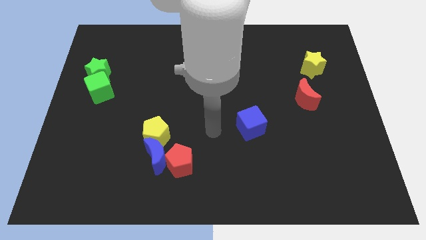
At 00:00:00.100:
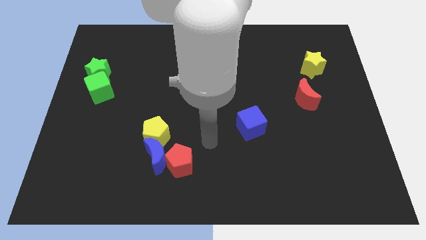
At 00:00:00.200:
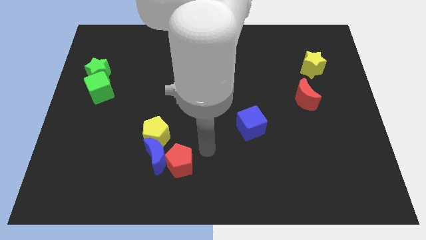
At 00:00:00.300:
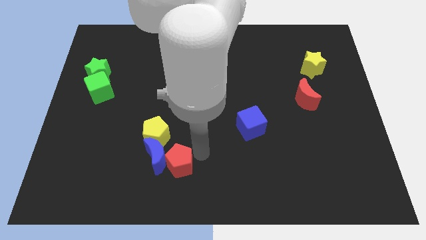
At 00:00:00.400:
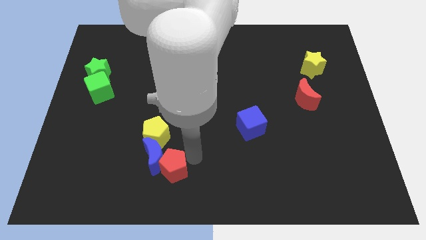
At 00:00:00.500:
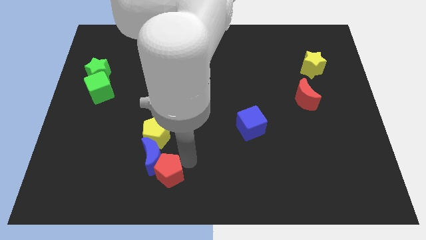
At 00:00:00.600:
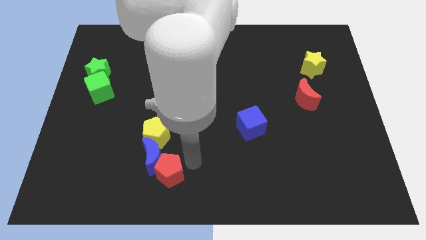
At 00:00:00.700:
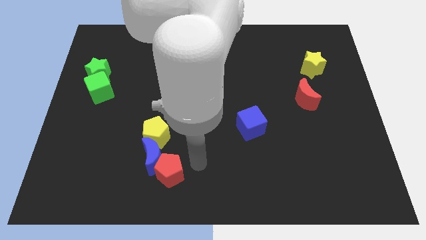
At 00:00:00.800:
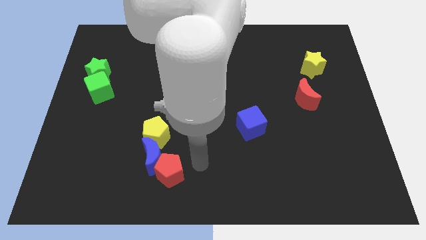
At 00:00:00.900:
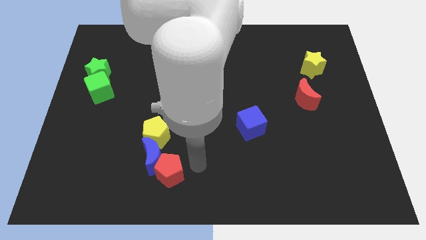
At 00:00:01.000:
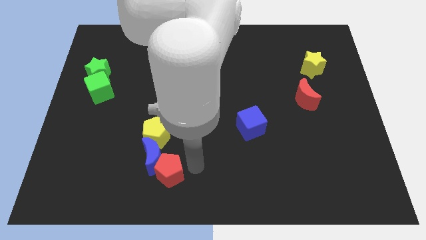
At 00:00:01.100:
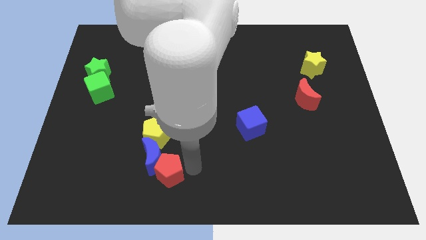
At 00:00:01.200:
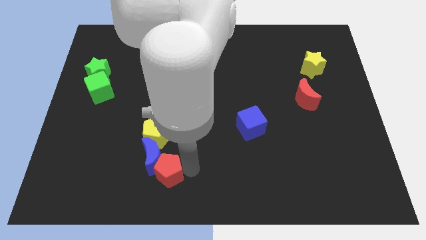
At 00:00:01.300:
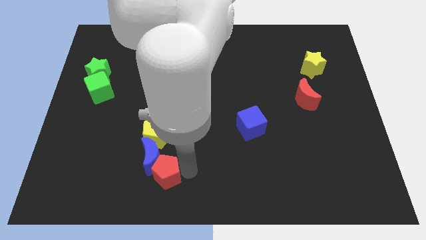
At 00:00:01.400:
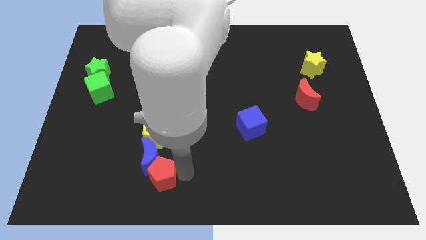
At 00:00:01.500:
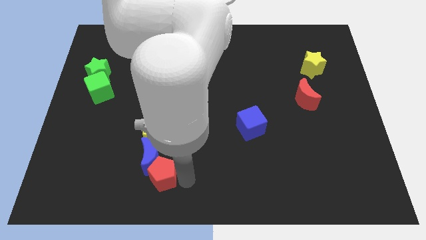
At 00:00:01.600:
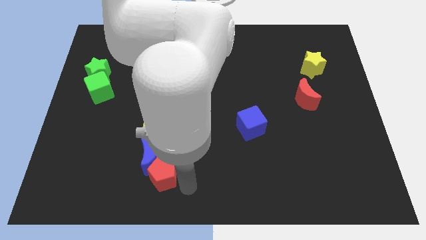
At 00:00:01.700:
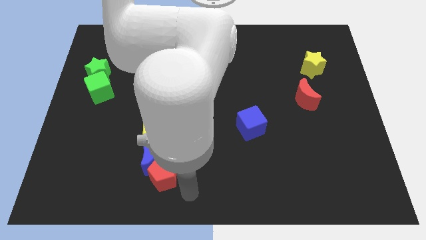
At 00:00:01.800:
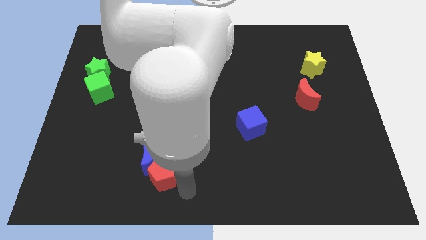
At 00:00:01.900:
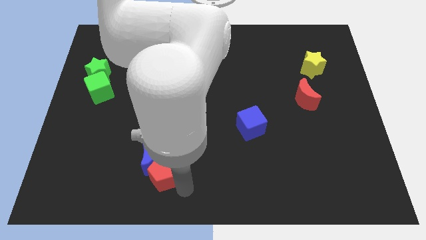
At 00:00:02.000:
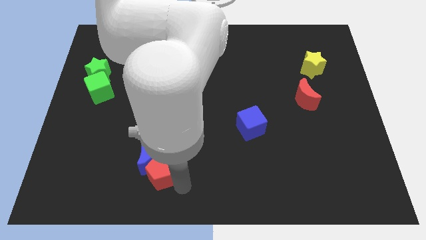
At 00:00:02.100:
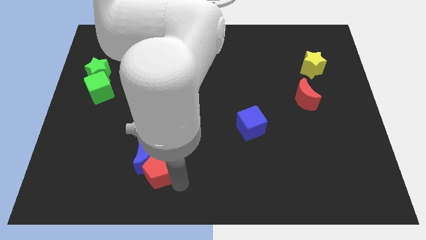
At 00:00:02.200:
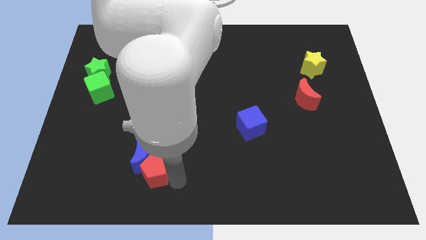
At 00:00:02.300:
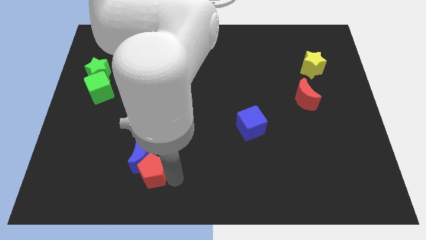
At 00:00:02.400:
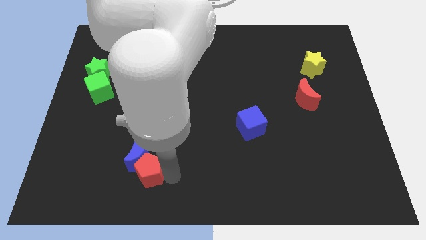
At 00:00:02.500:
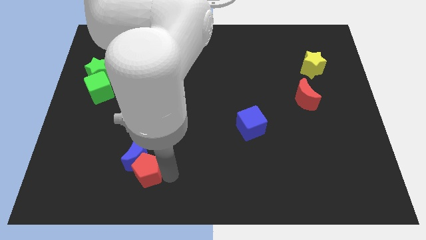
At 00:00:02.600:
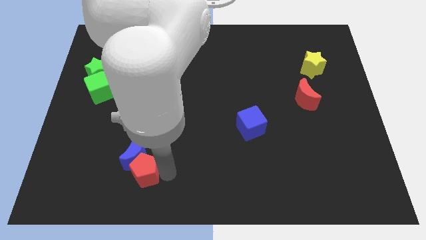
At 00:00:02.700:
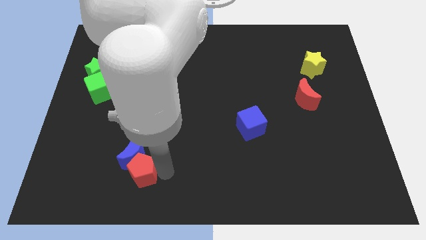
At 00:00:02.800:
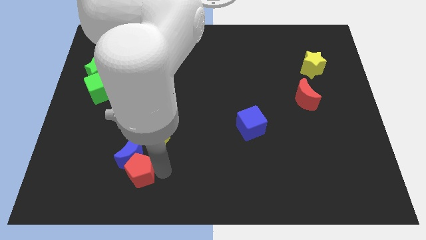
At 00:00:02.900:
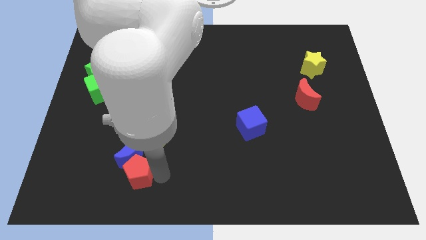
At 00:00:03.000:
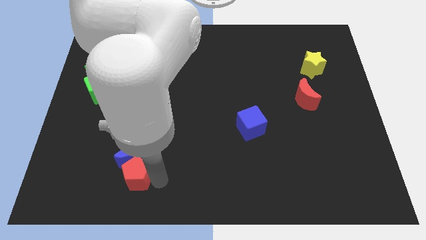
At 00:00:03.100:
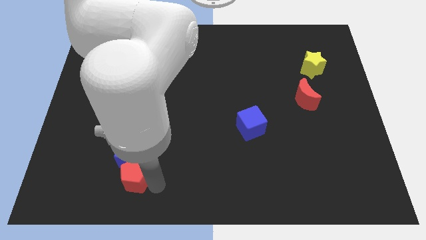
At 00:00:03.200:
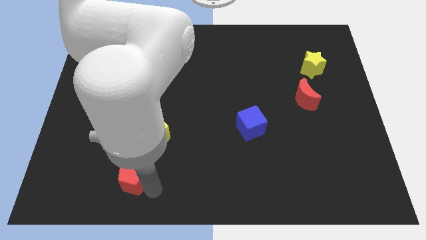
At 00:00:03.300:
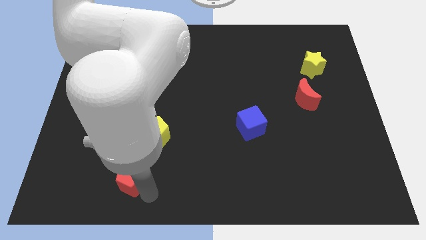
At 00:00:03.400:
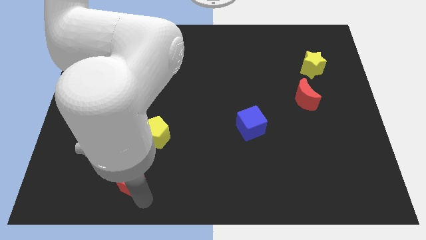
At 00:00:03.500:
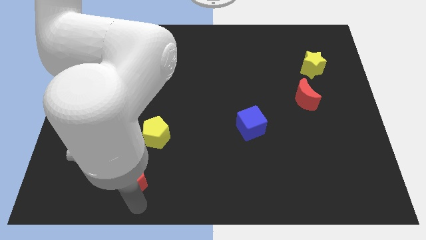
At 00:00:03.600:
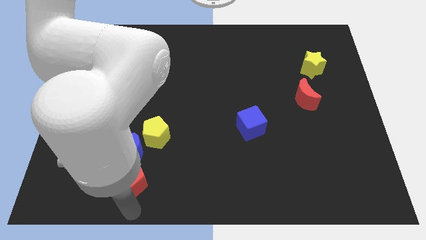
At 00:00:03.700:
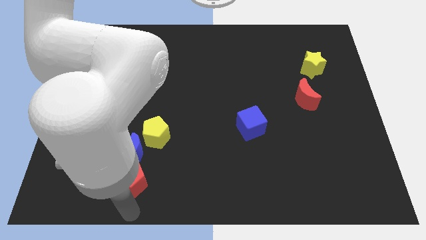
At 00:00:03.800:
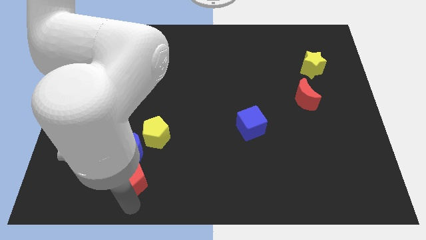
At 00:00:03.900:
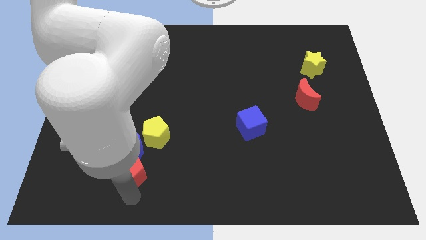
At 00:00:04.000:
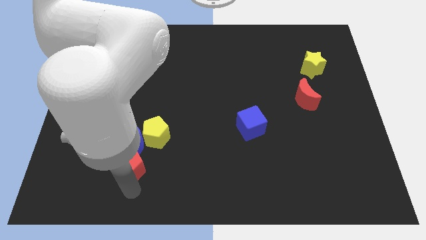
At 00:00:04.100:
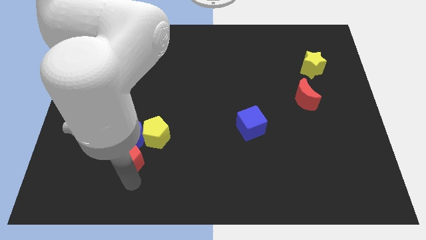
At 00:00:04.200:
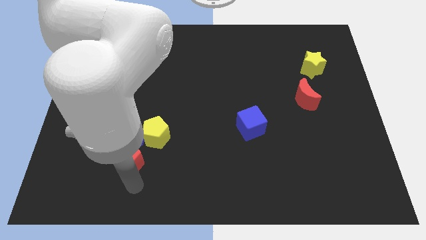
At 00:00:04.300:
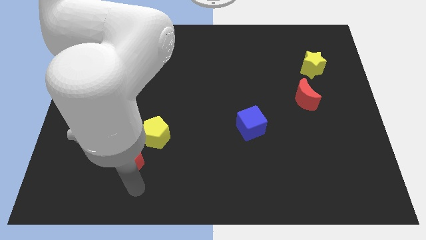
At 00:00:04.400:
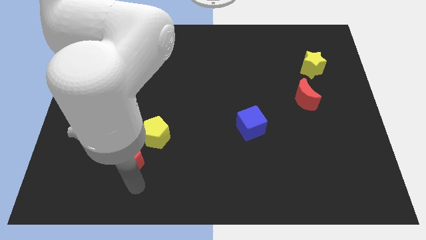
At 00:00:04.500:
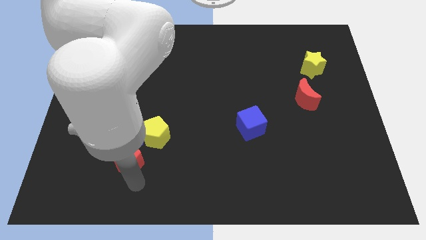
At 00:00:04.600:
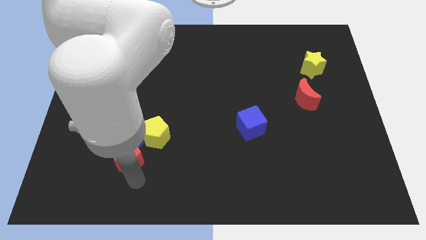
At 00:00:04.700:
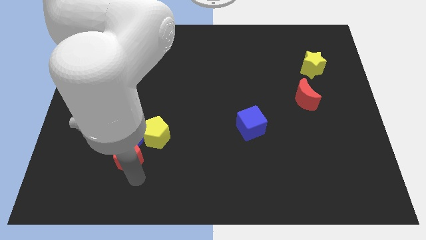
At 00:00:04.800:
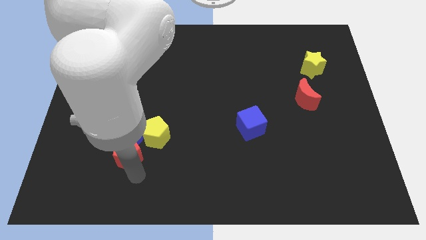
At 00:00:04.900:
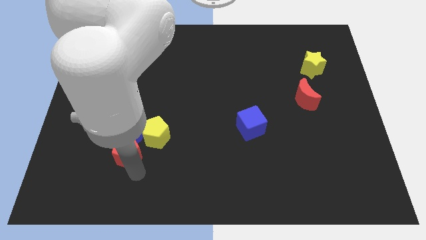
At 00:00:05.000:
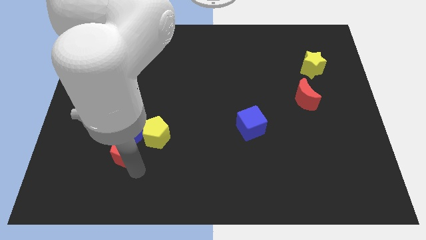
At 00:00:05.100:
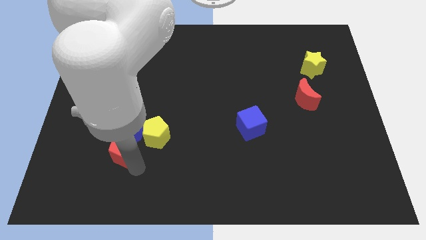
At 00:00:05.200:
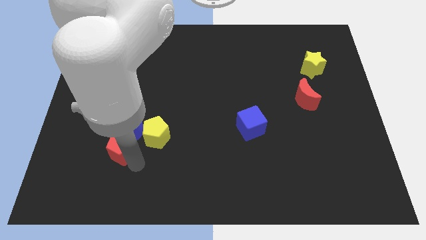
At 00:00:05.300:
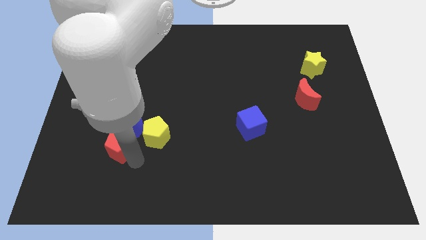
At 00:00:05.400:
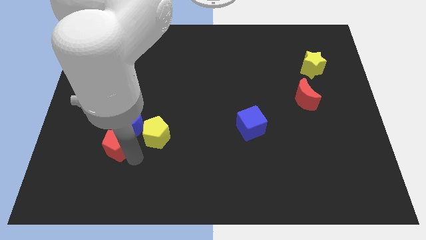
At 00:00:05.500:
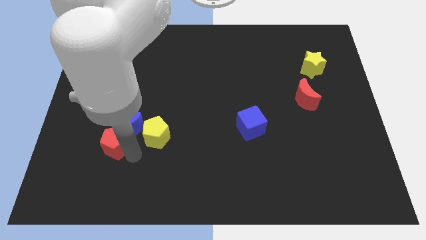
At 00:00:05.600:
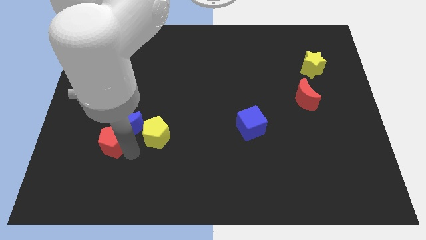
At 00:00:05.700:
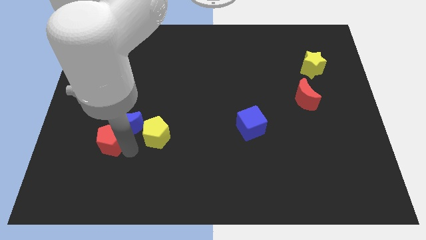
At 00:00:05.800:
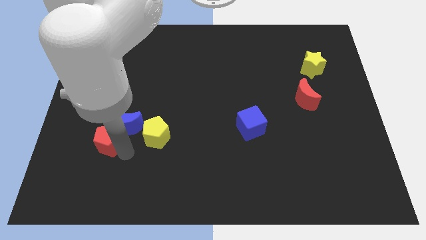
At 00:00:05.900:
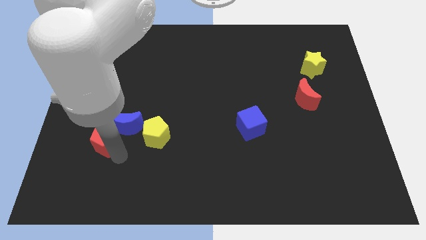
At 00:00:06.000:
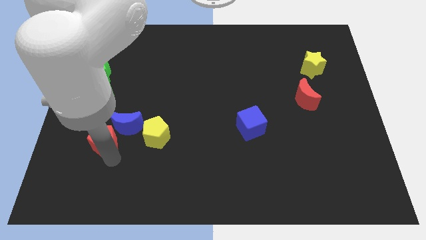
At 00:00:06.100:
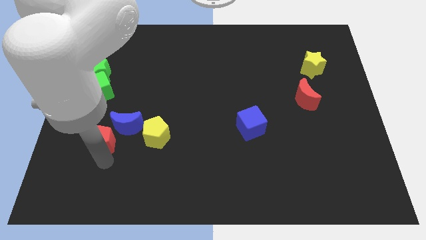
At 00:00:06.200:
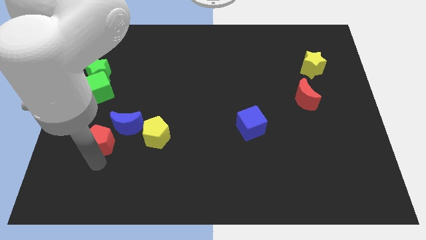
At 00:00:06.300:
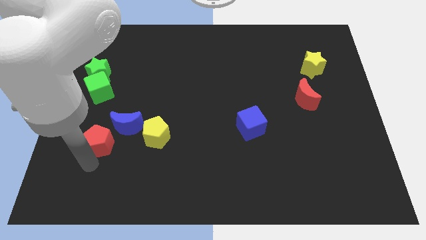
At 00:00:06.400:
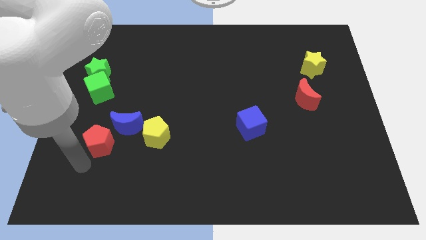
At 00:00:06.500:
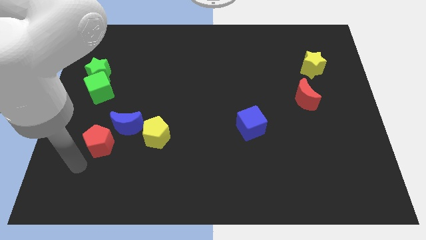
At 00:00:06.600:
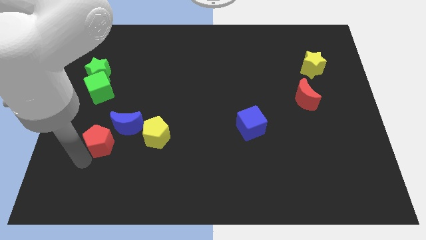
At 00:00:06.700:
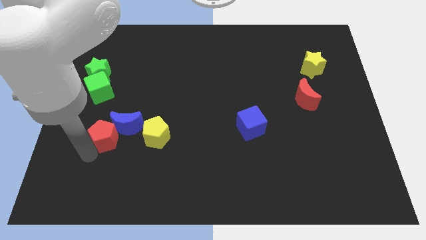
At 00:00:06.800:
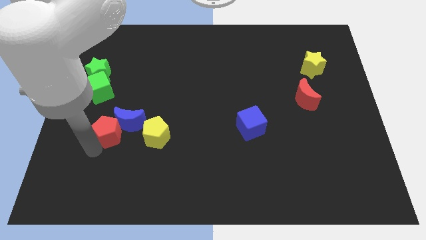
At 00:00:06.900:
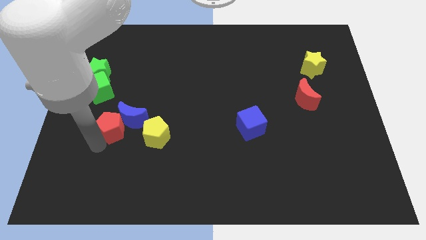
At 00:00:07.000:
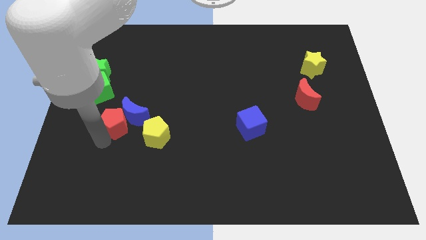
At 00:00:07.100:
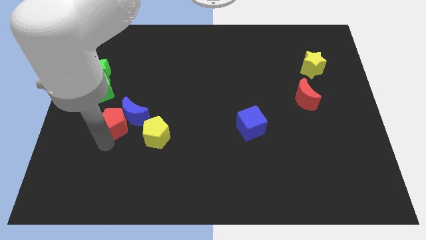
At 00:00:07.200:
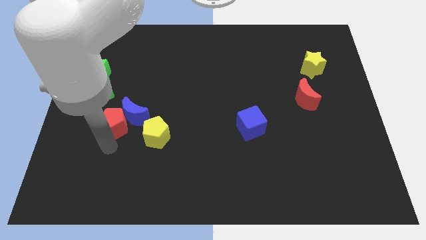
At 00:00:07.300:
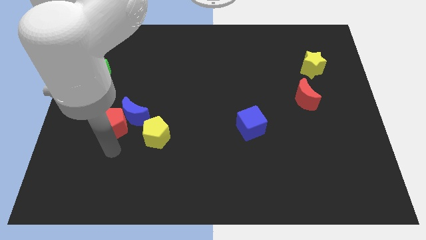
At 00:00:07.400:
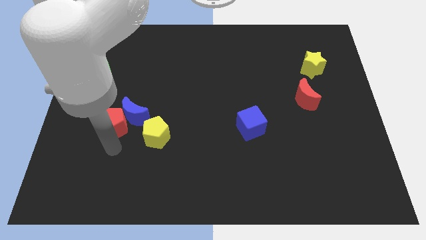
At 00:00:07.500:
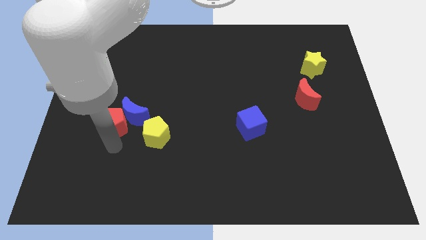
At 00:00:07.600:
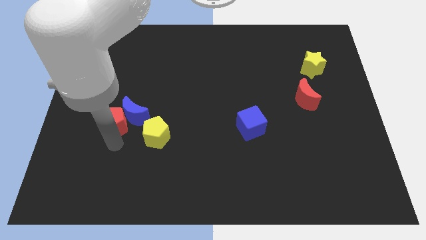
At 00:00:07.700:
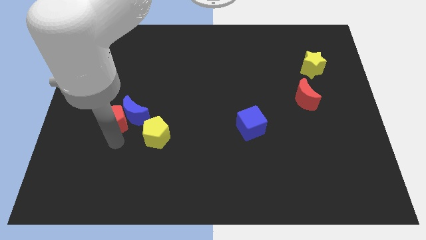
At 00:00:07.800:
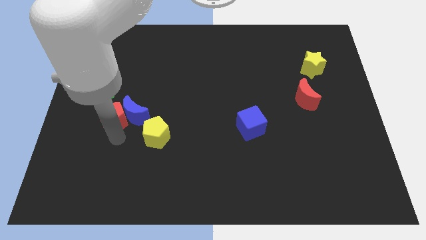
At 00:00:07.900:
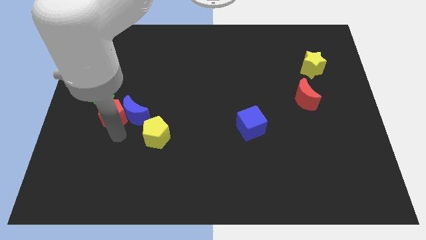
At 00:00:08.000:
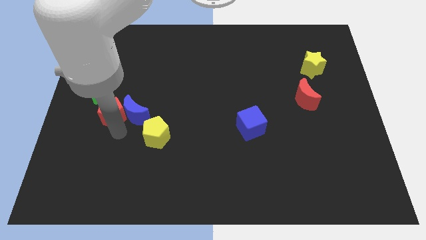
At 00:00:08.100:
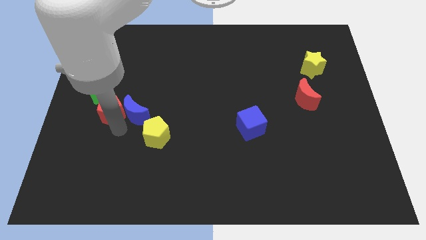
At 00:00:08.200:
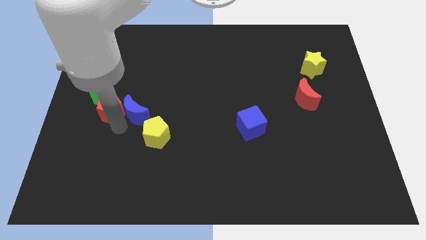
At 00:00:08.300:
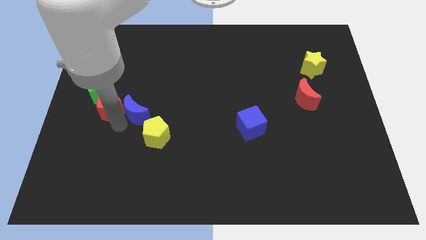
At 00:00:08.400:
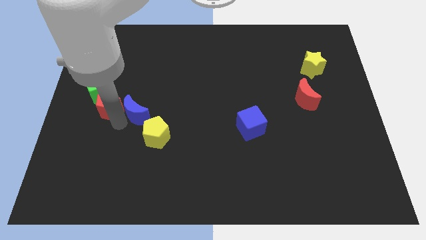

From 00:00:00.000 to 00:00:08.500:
slide the red pentagon towards the green cube
